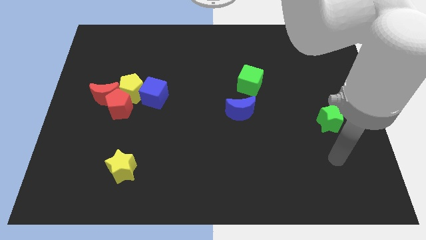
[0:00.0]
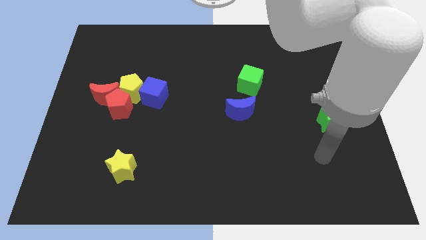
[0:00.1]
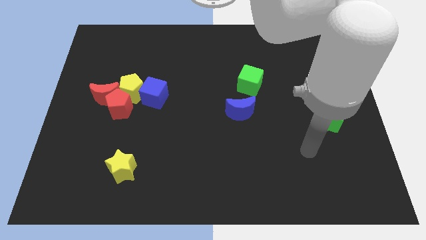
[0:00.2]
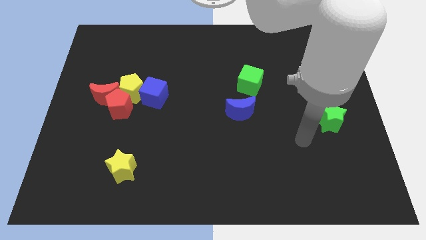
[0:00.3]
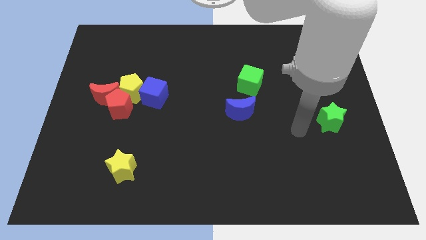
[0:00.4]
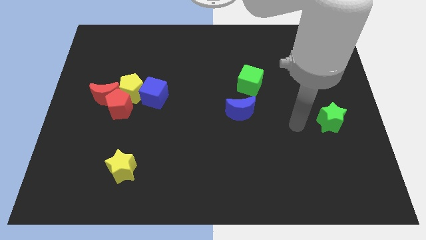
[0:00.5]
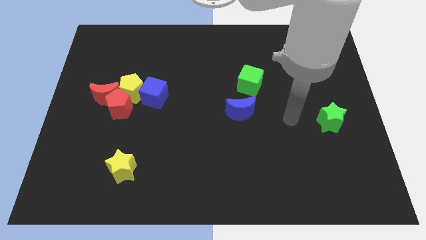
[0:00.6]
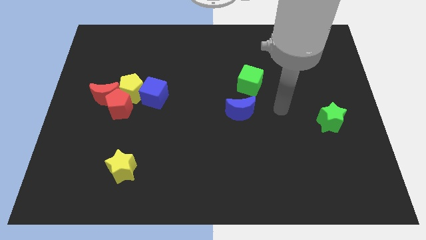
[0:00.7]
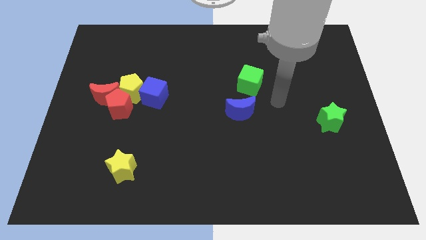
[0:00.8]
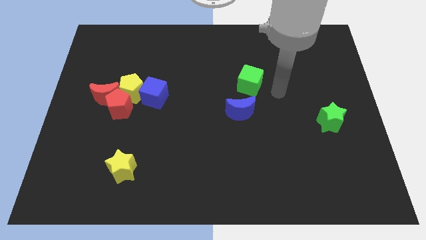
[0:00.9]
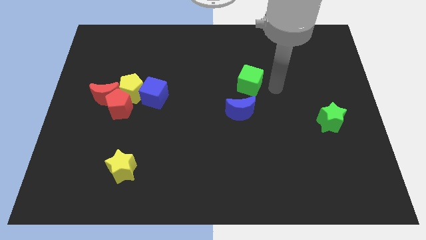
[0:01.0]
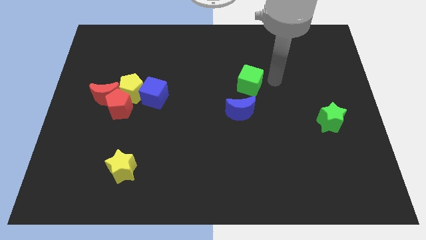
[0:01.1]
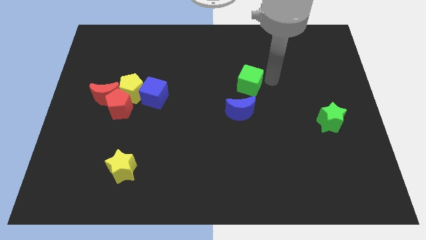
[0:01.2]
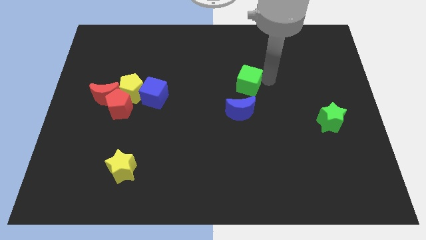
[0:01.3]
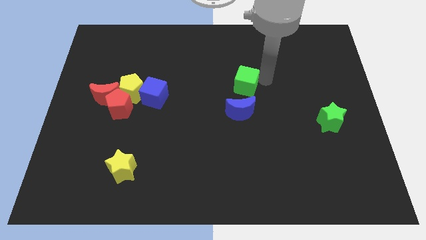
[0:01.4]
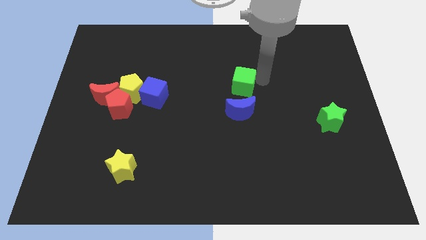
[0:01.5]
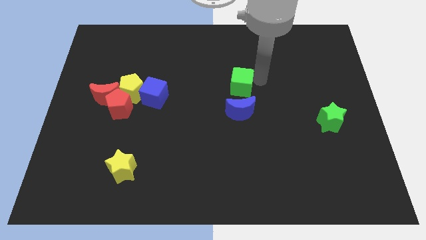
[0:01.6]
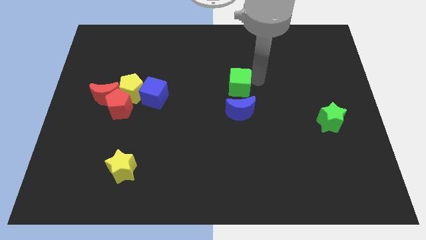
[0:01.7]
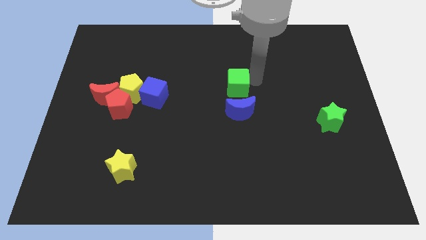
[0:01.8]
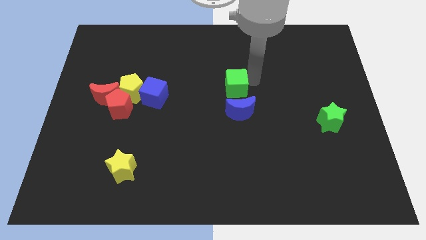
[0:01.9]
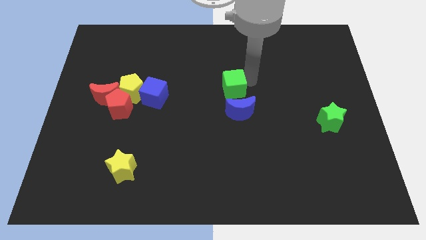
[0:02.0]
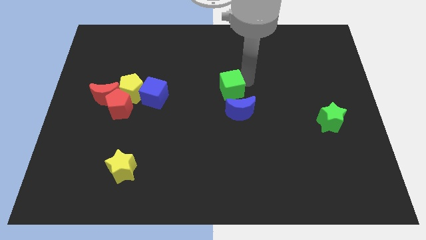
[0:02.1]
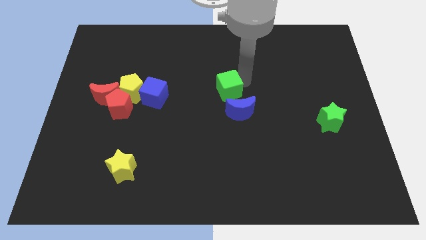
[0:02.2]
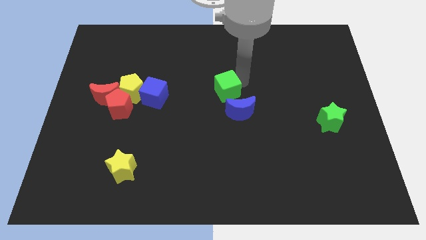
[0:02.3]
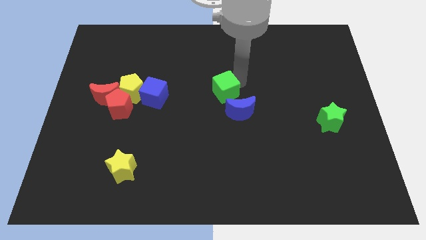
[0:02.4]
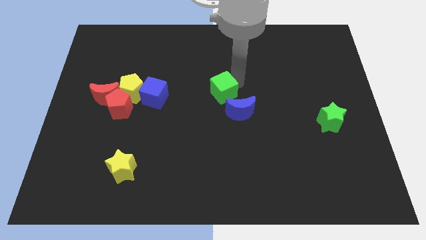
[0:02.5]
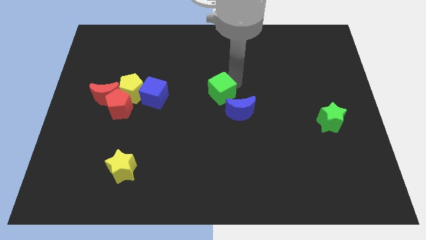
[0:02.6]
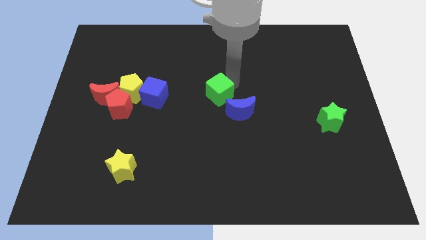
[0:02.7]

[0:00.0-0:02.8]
slightly slide the green cube diagonally down and left

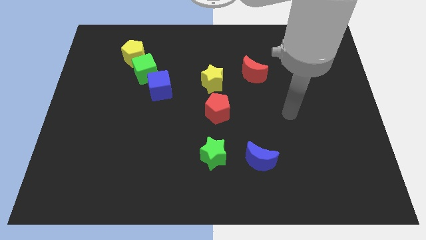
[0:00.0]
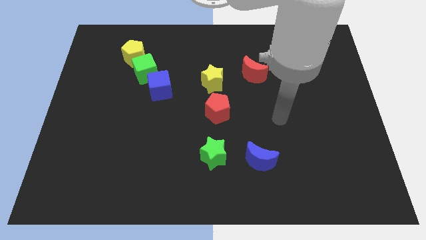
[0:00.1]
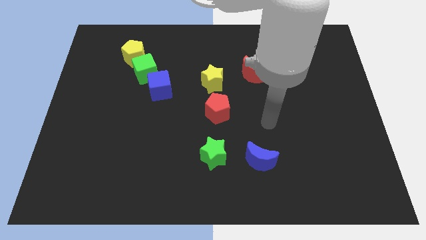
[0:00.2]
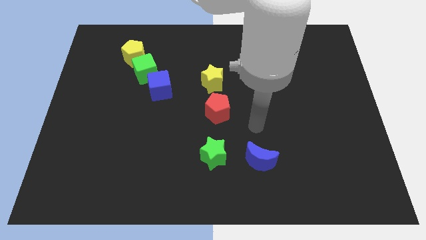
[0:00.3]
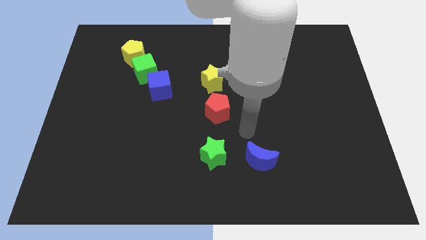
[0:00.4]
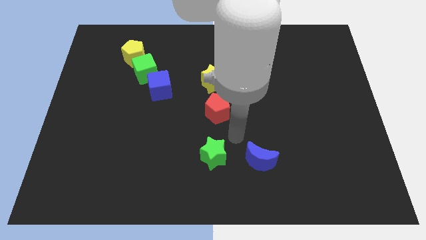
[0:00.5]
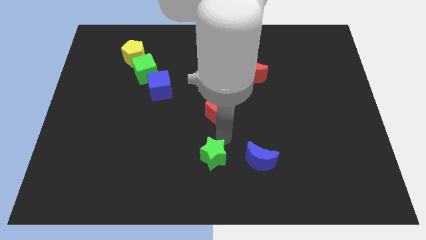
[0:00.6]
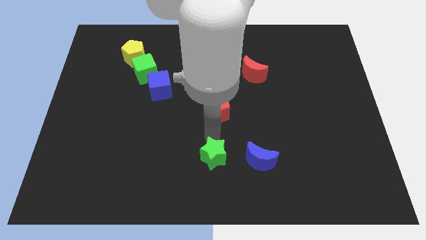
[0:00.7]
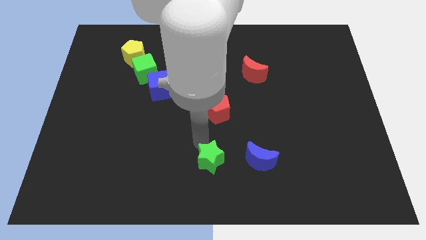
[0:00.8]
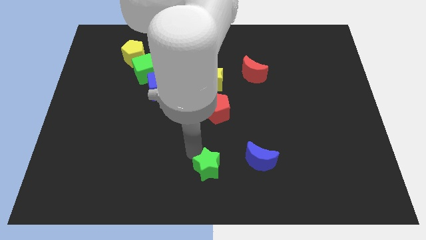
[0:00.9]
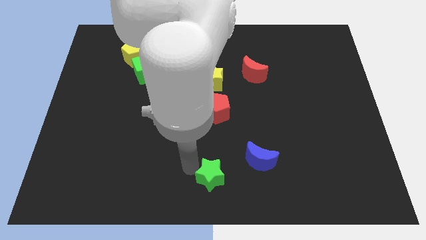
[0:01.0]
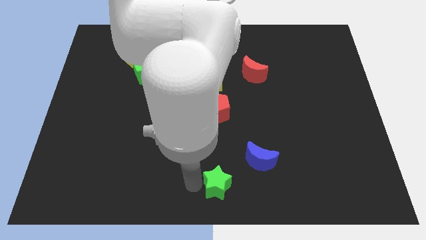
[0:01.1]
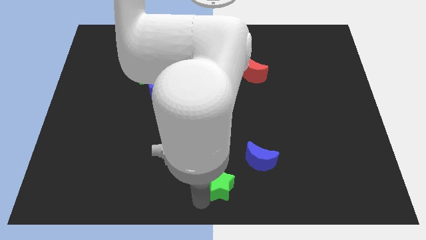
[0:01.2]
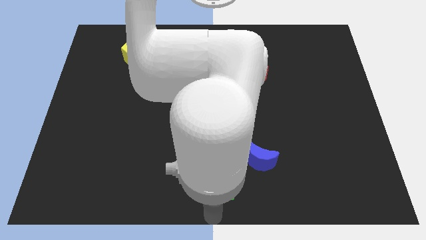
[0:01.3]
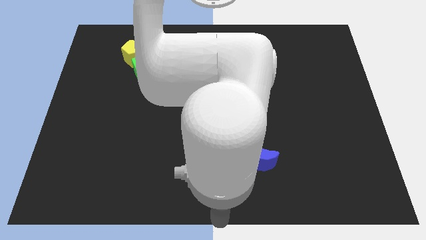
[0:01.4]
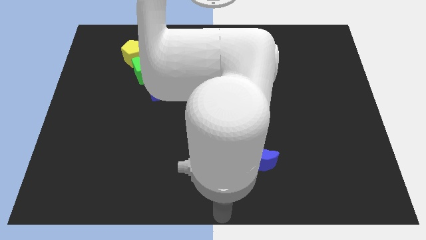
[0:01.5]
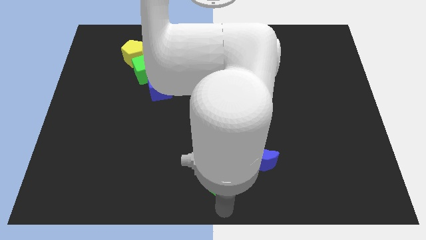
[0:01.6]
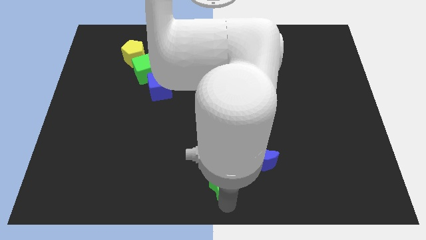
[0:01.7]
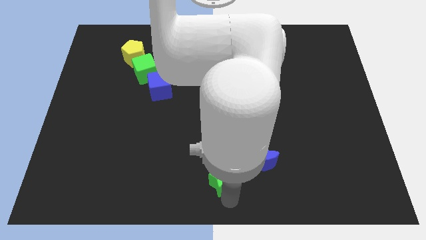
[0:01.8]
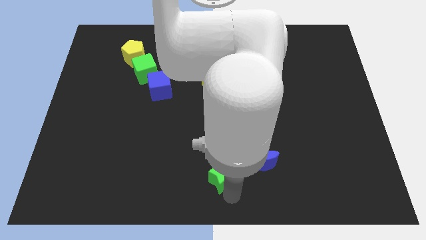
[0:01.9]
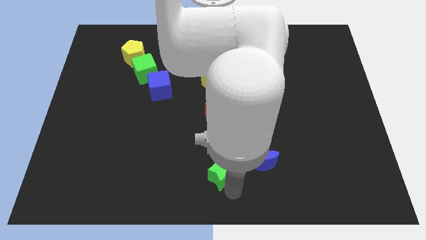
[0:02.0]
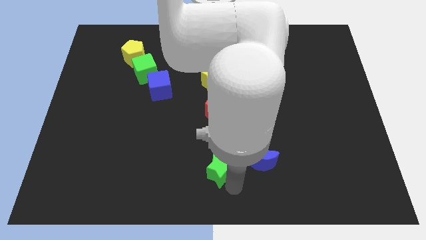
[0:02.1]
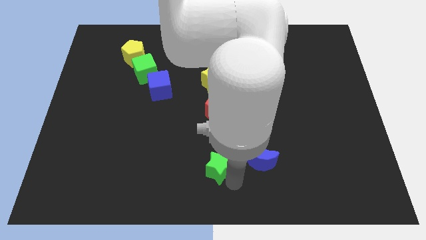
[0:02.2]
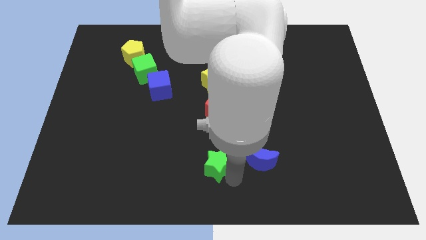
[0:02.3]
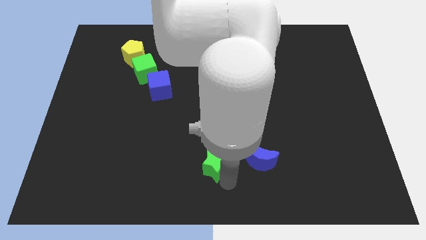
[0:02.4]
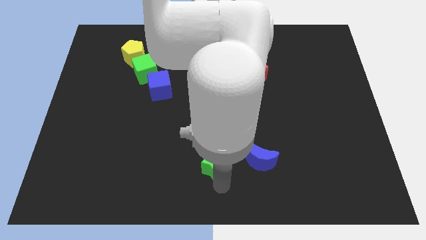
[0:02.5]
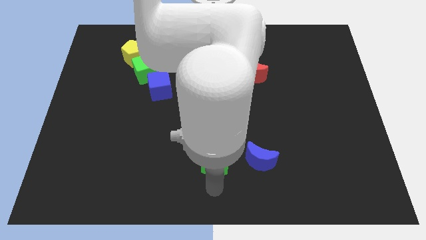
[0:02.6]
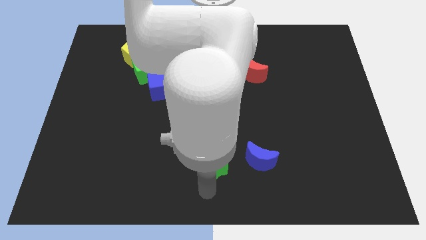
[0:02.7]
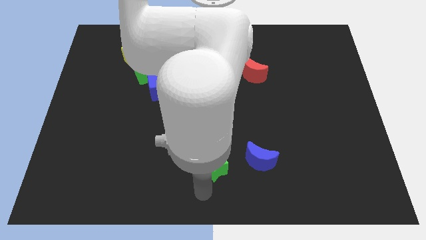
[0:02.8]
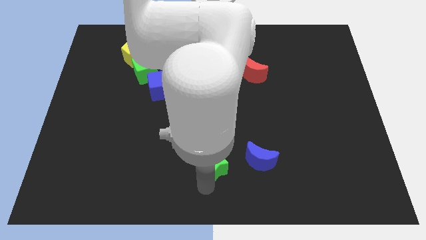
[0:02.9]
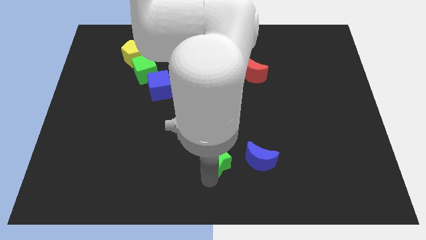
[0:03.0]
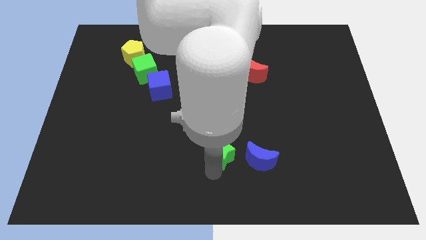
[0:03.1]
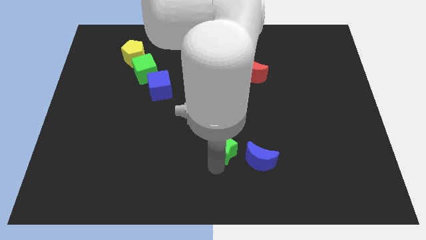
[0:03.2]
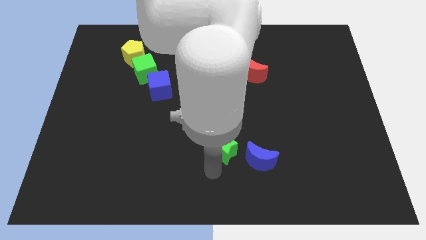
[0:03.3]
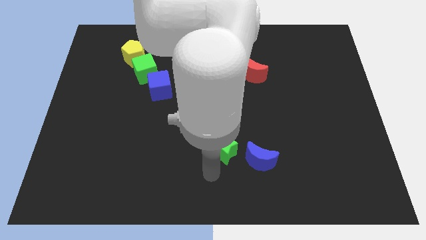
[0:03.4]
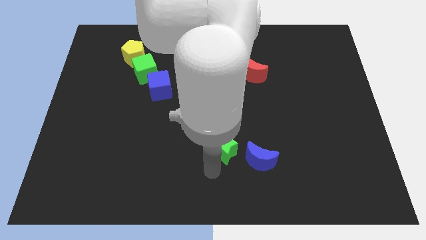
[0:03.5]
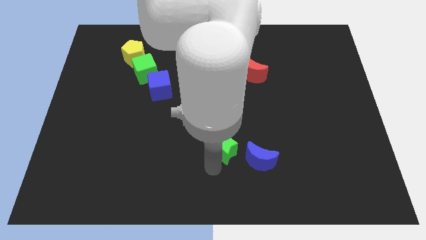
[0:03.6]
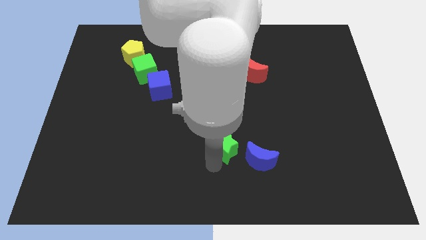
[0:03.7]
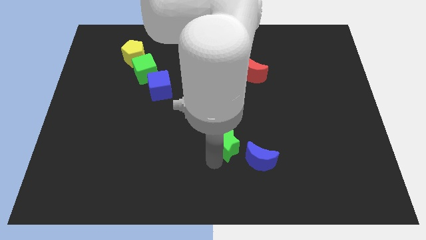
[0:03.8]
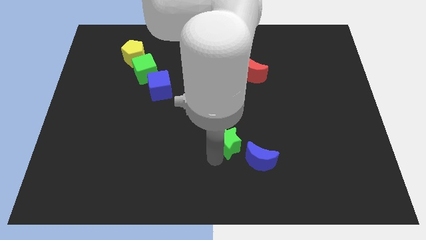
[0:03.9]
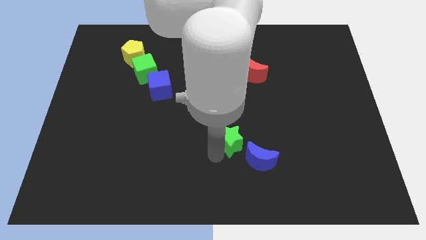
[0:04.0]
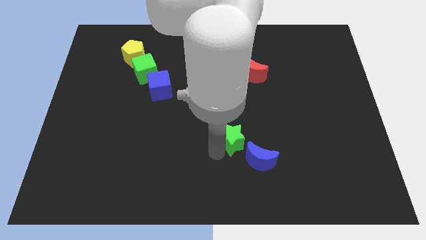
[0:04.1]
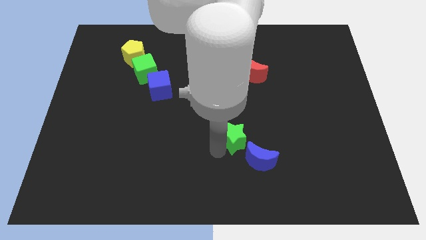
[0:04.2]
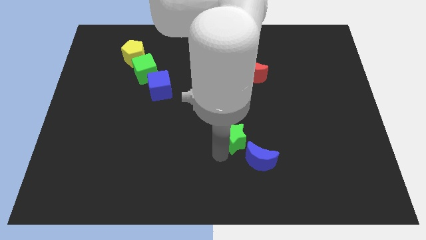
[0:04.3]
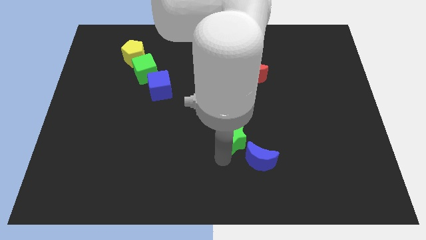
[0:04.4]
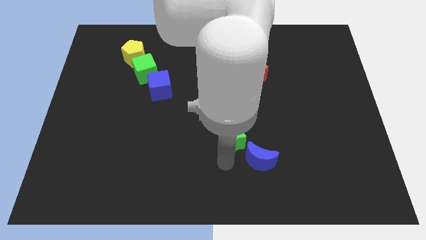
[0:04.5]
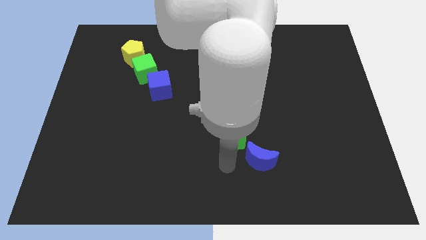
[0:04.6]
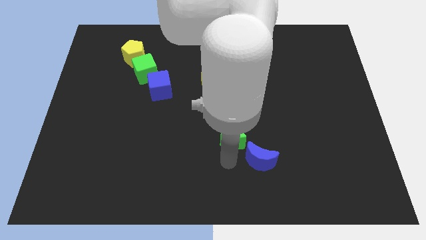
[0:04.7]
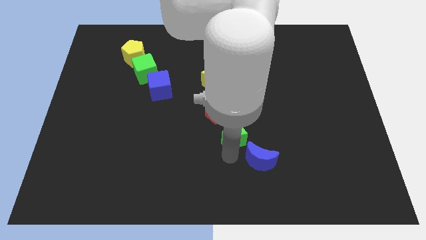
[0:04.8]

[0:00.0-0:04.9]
push the green star slightly up and to the right diagonally

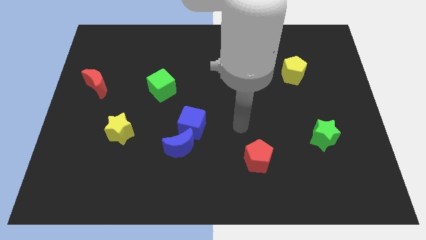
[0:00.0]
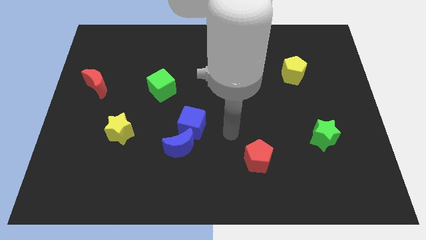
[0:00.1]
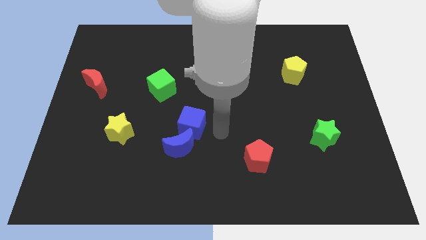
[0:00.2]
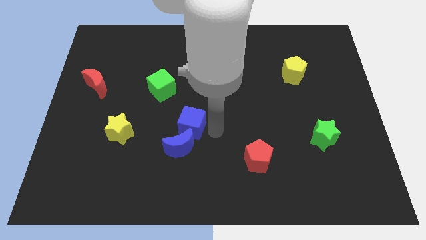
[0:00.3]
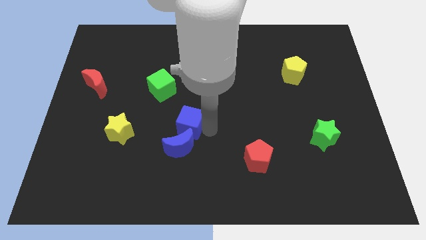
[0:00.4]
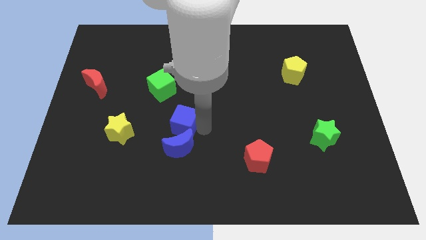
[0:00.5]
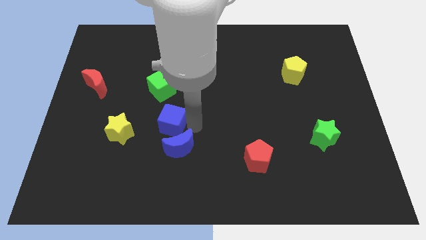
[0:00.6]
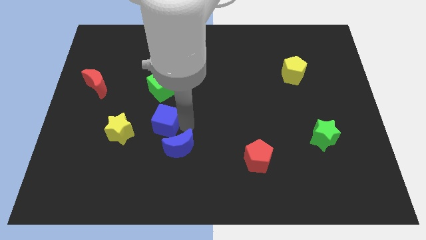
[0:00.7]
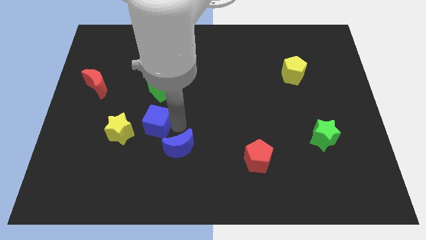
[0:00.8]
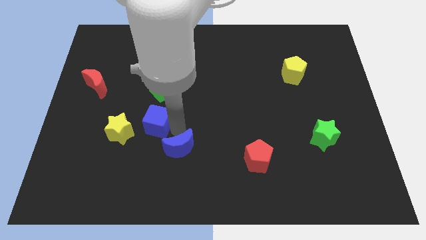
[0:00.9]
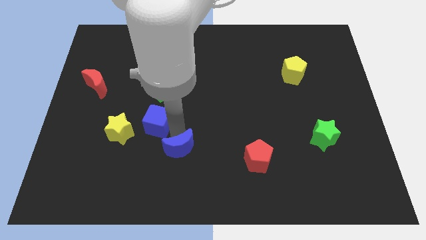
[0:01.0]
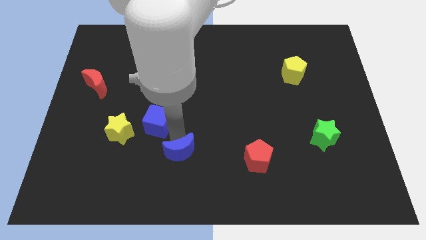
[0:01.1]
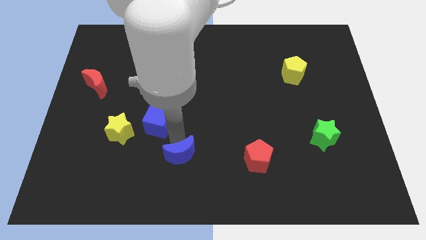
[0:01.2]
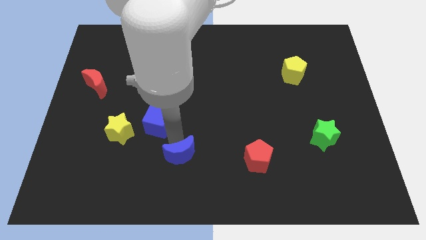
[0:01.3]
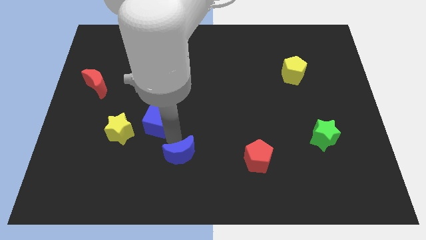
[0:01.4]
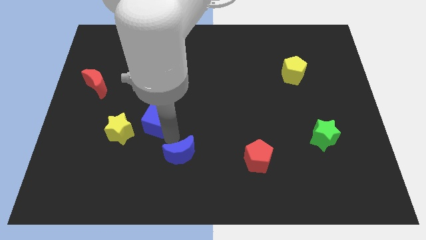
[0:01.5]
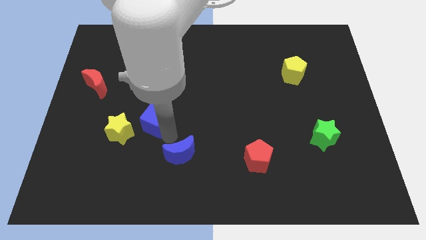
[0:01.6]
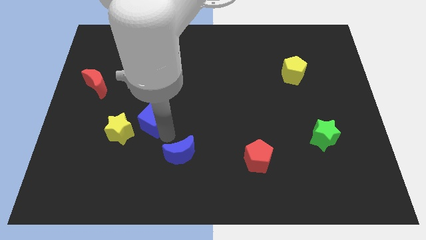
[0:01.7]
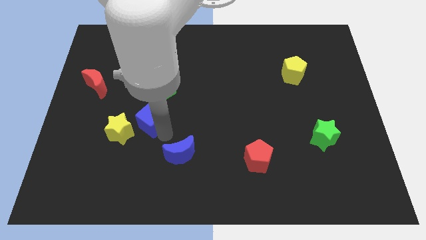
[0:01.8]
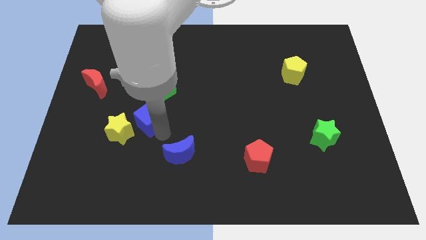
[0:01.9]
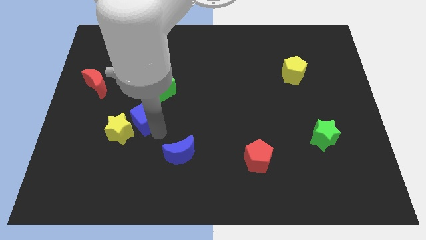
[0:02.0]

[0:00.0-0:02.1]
push the blue cube up and left a little
